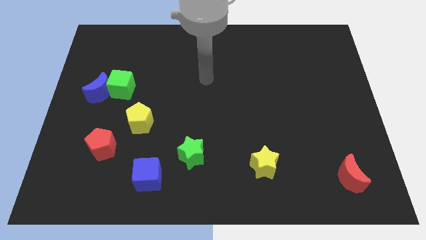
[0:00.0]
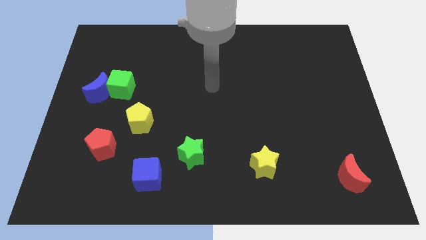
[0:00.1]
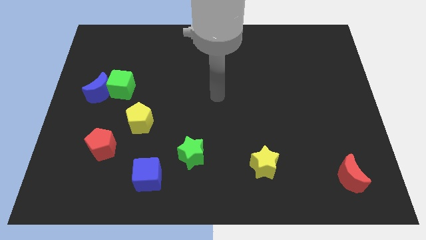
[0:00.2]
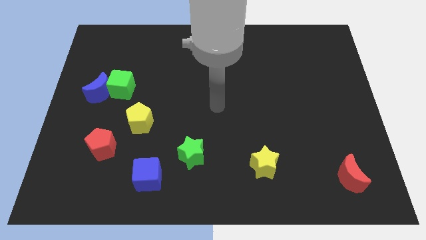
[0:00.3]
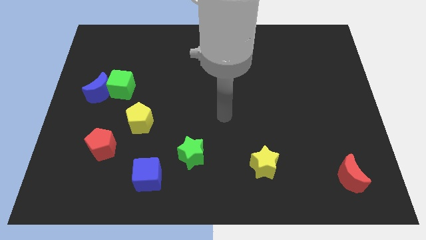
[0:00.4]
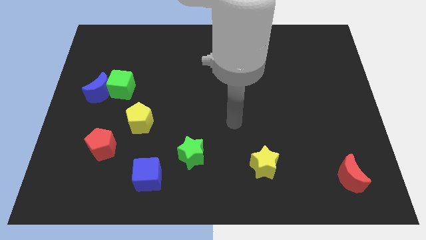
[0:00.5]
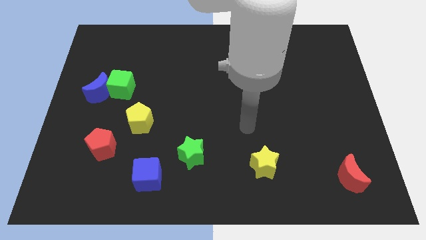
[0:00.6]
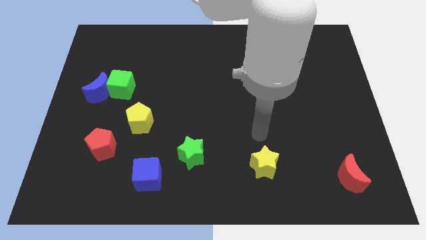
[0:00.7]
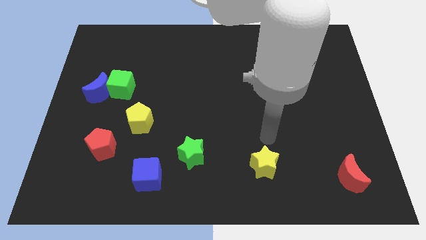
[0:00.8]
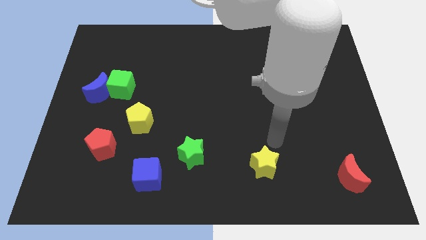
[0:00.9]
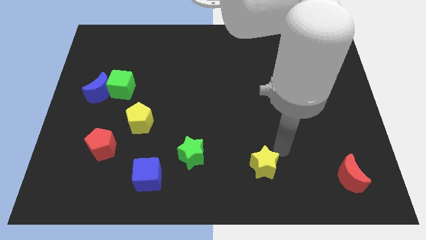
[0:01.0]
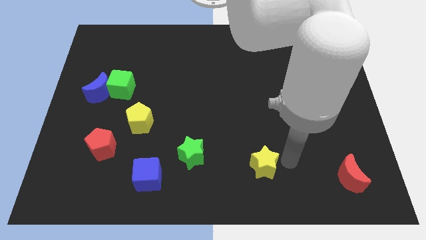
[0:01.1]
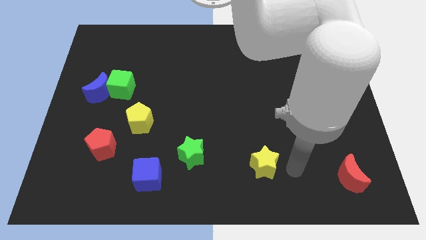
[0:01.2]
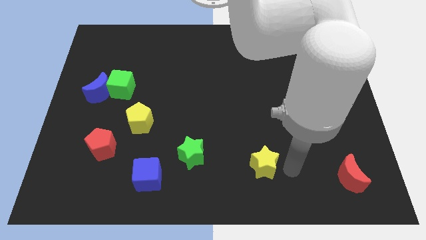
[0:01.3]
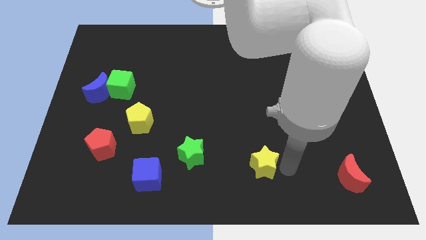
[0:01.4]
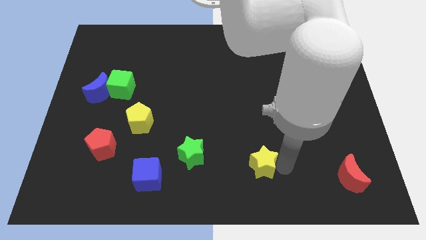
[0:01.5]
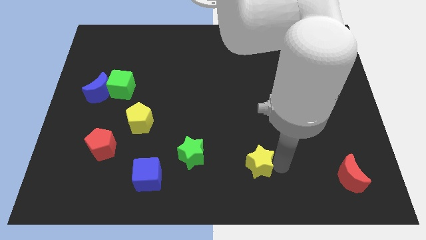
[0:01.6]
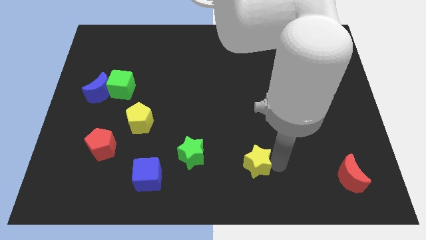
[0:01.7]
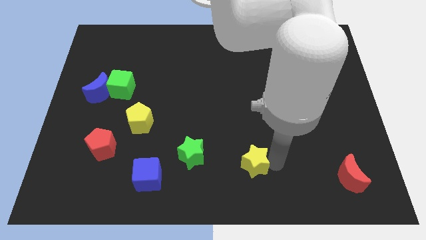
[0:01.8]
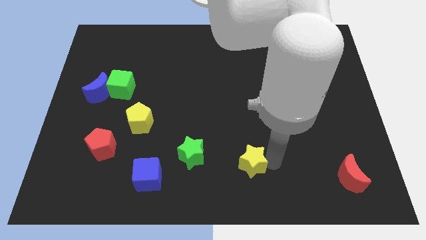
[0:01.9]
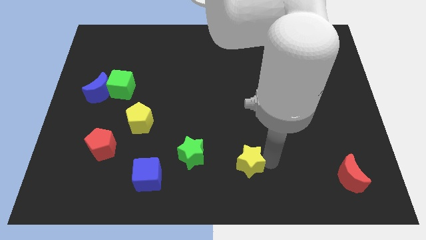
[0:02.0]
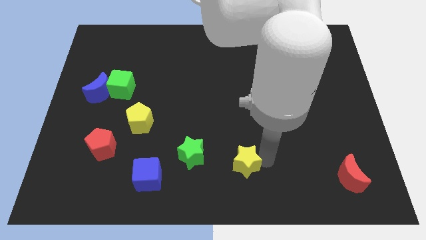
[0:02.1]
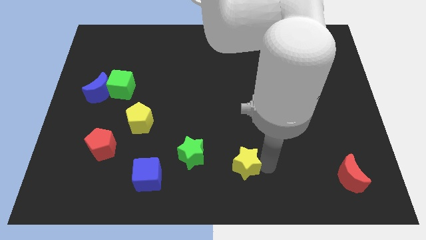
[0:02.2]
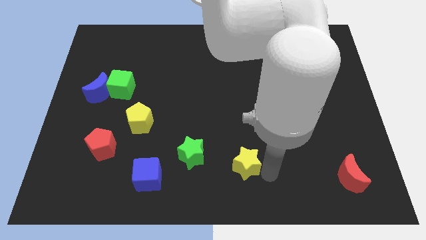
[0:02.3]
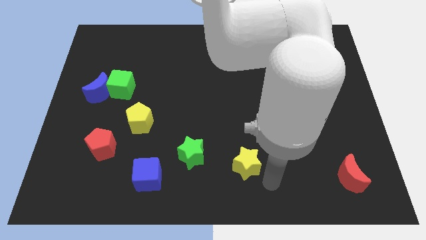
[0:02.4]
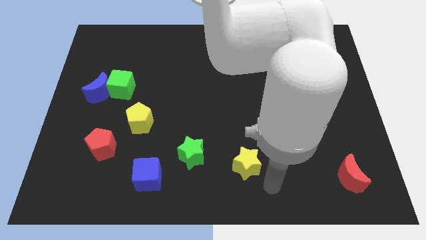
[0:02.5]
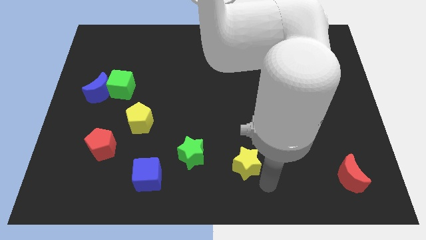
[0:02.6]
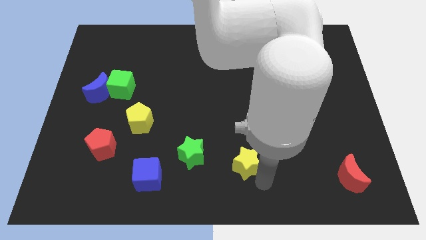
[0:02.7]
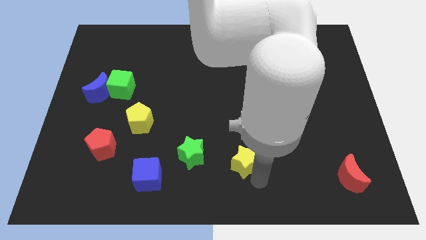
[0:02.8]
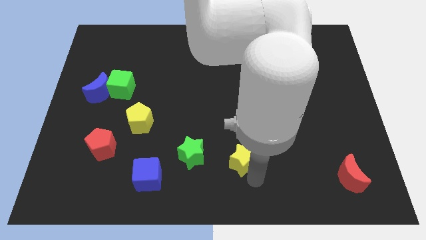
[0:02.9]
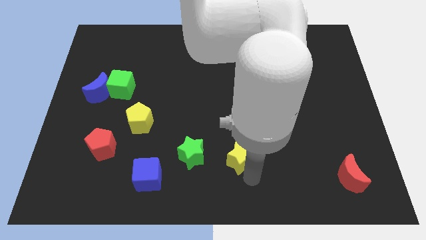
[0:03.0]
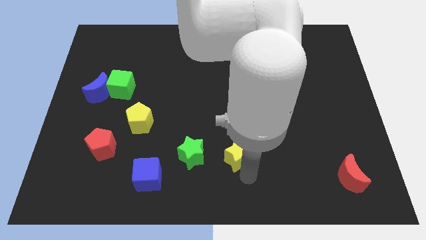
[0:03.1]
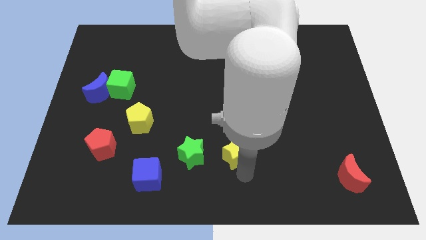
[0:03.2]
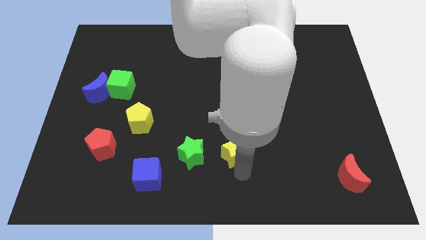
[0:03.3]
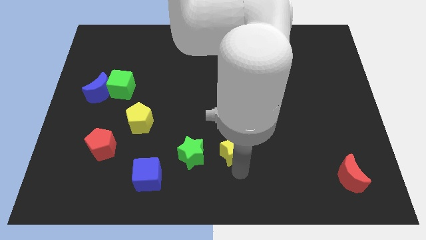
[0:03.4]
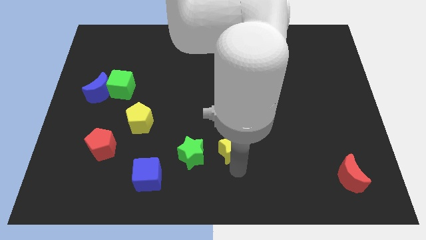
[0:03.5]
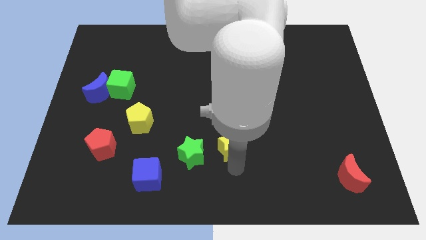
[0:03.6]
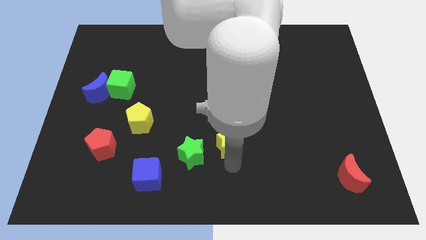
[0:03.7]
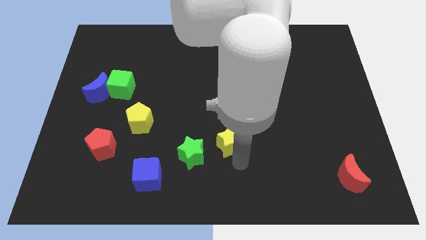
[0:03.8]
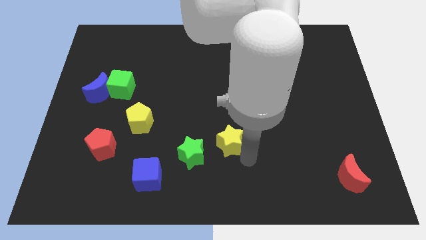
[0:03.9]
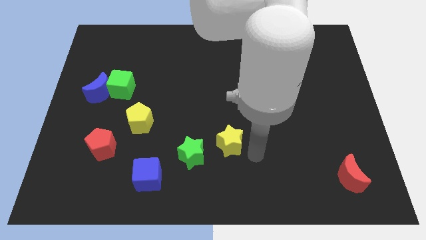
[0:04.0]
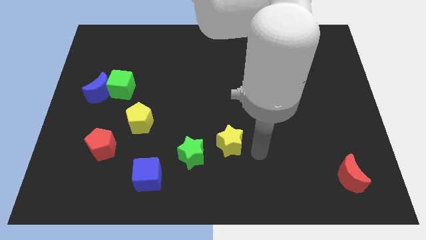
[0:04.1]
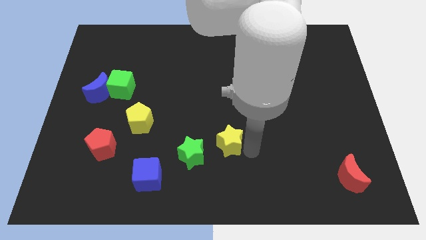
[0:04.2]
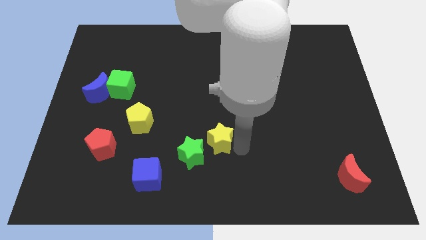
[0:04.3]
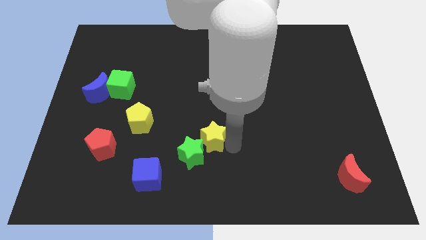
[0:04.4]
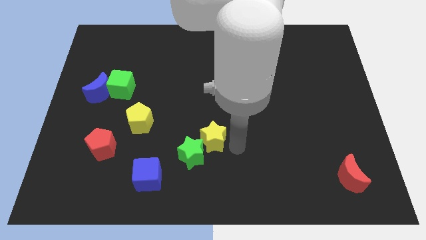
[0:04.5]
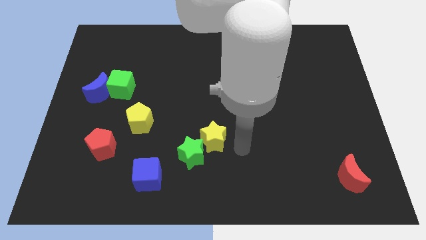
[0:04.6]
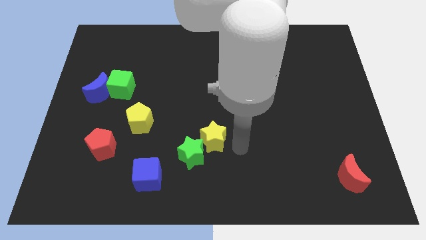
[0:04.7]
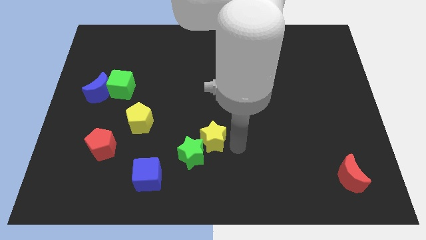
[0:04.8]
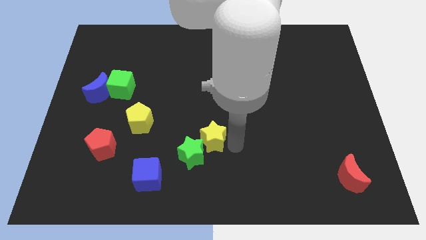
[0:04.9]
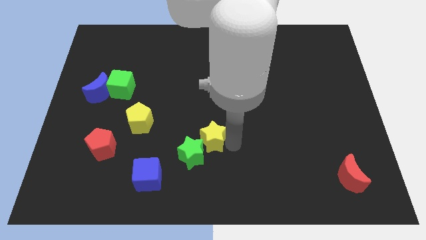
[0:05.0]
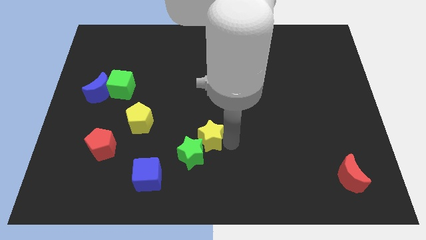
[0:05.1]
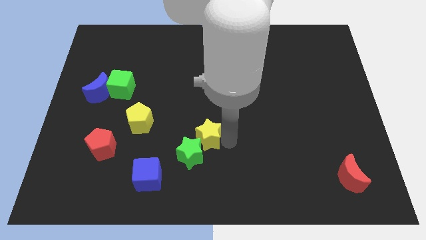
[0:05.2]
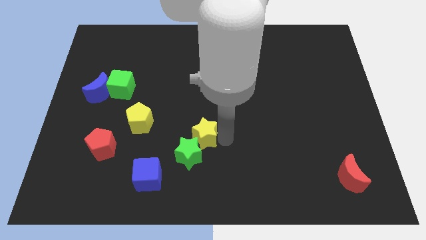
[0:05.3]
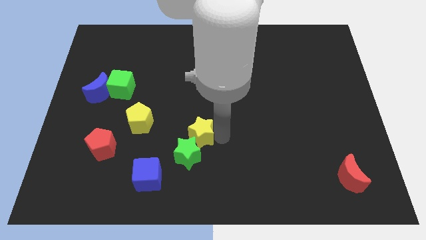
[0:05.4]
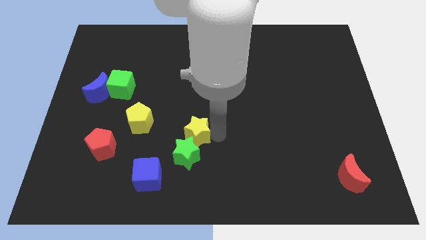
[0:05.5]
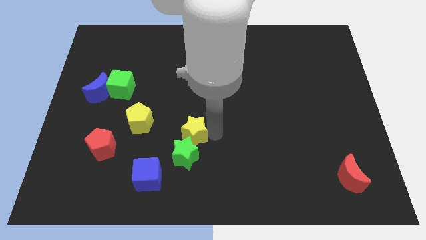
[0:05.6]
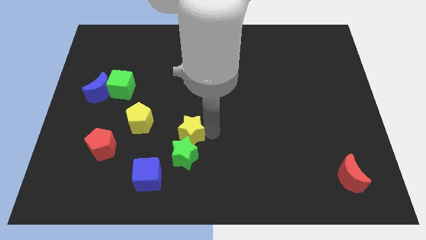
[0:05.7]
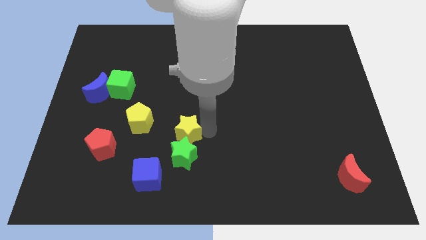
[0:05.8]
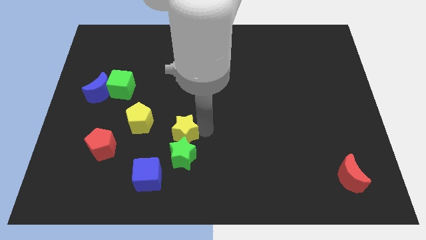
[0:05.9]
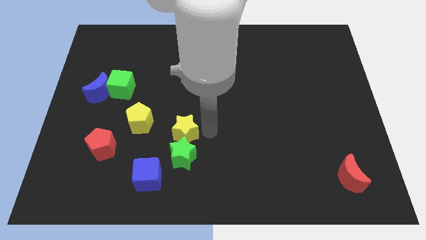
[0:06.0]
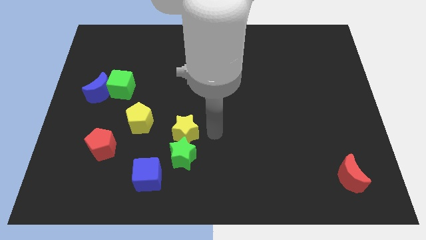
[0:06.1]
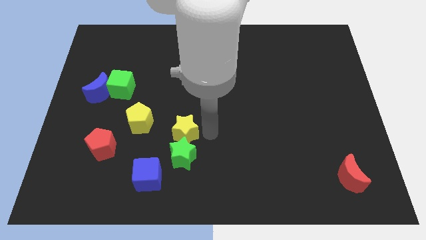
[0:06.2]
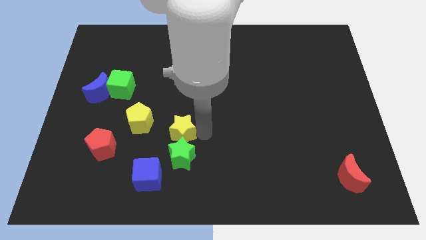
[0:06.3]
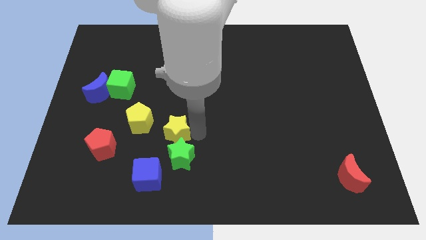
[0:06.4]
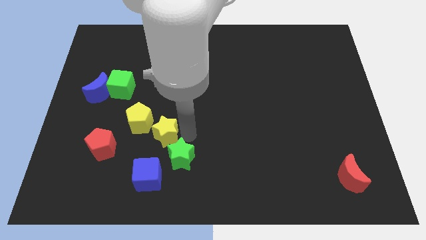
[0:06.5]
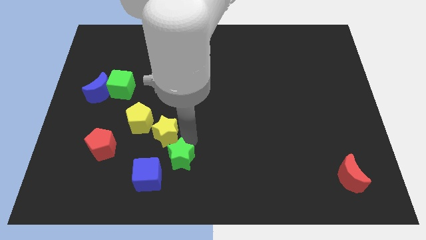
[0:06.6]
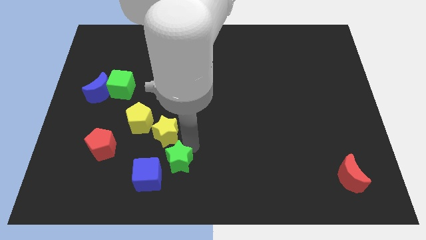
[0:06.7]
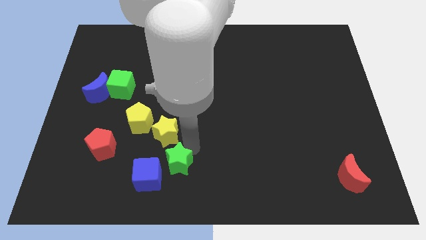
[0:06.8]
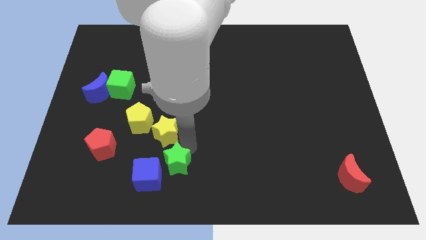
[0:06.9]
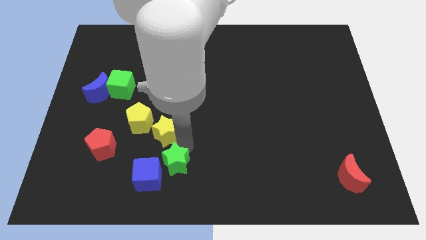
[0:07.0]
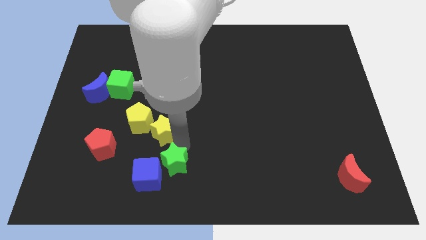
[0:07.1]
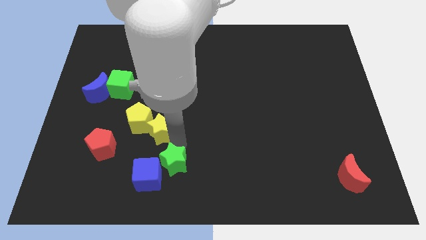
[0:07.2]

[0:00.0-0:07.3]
push the yellow star next to the yellow pentagon

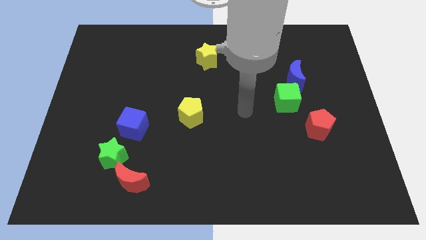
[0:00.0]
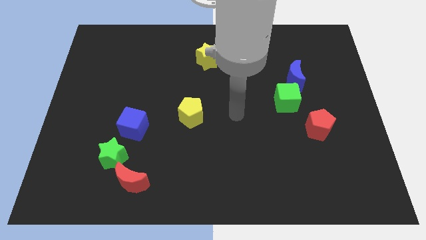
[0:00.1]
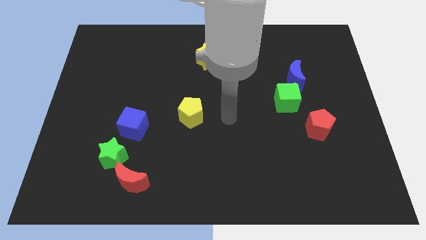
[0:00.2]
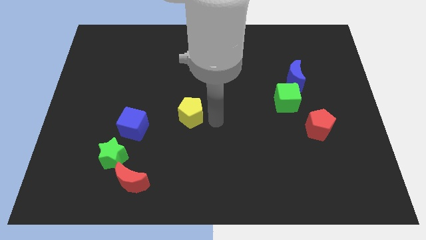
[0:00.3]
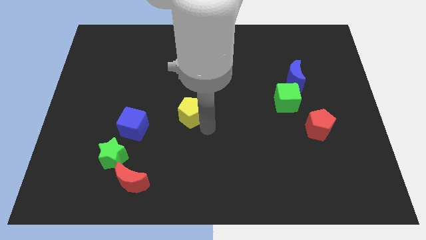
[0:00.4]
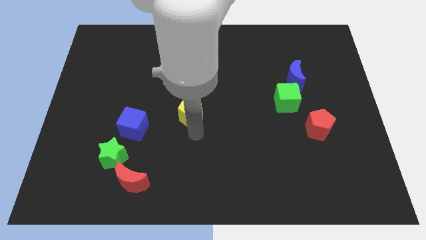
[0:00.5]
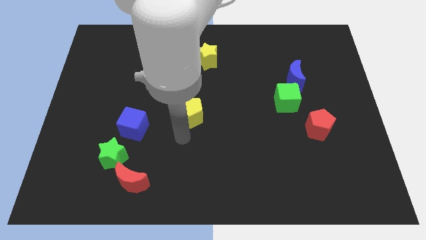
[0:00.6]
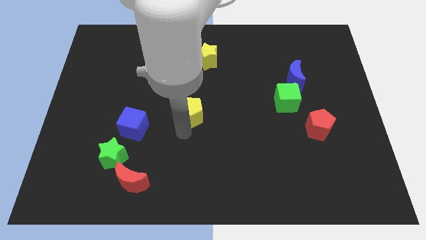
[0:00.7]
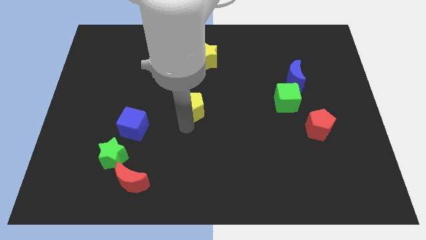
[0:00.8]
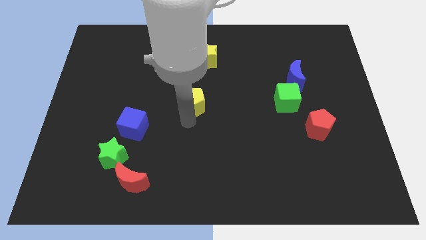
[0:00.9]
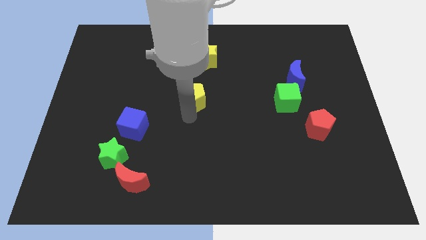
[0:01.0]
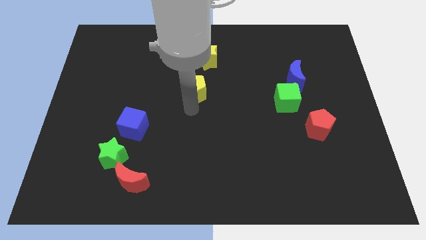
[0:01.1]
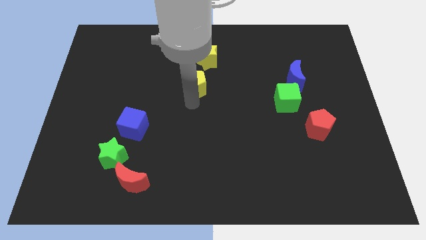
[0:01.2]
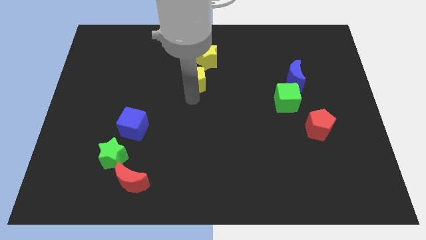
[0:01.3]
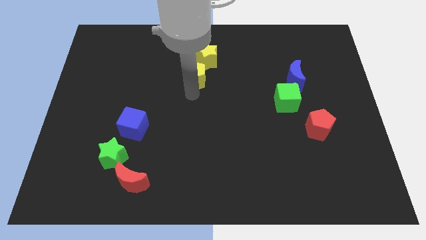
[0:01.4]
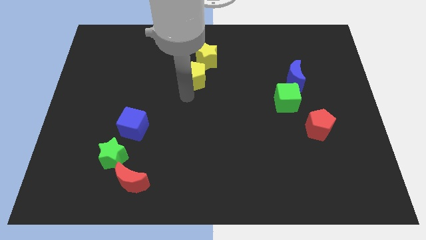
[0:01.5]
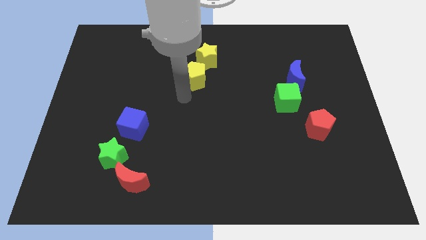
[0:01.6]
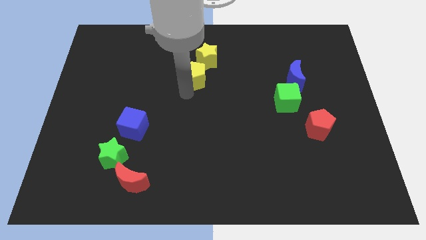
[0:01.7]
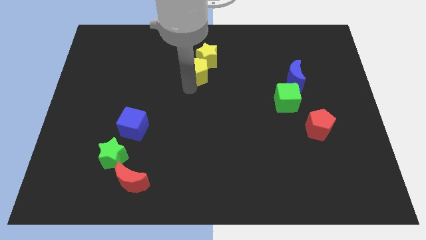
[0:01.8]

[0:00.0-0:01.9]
move the yellow pentagon close to the yellow star
